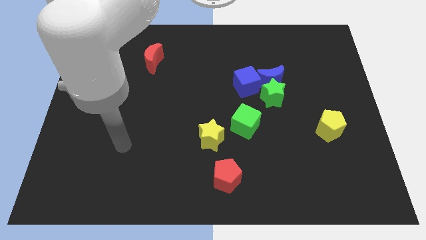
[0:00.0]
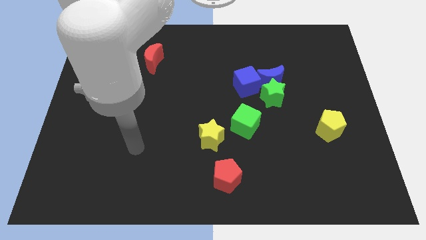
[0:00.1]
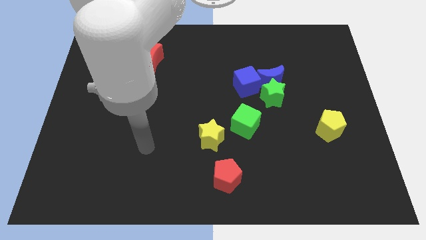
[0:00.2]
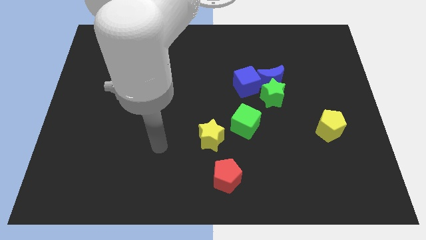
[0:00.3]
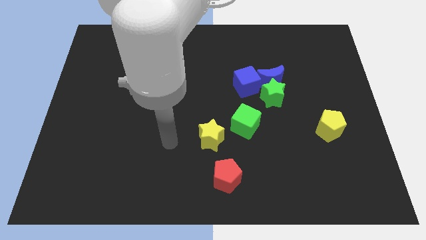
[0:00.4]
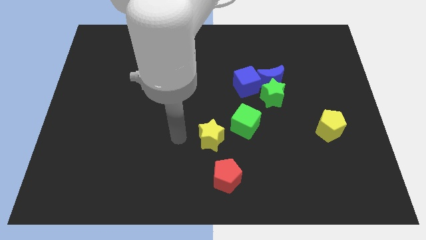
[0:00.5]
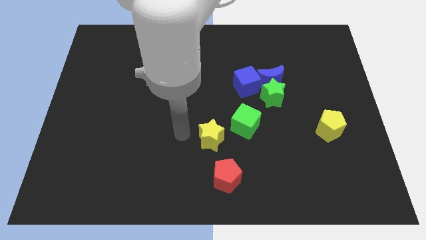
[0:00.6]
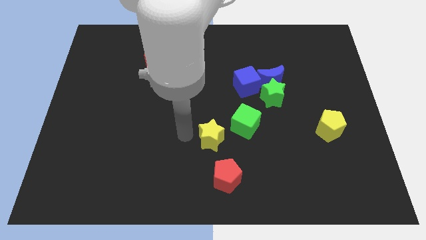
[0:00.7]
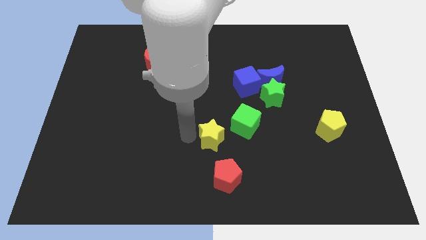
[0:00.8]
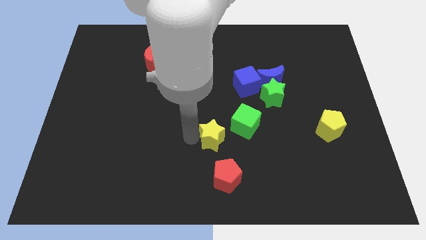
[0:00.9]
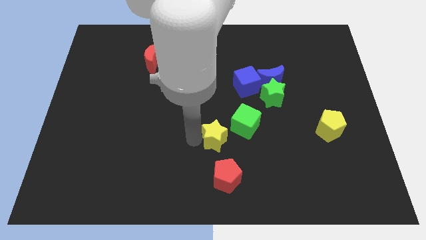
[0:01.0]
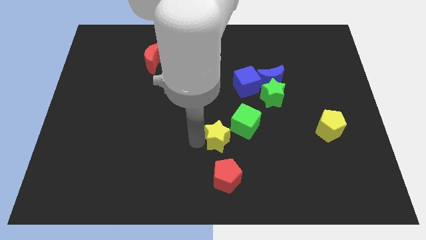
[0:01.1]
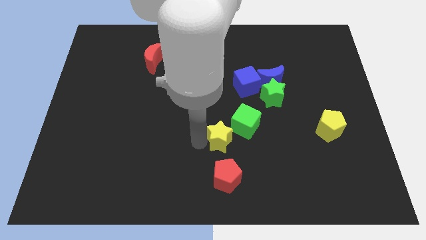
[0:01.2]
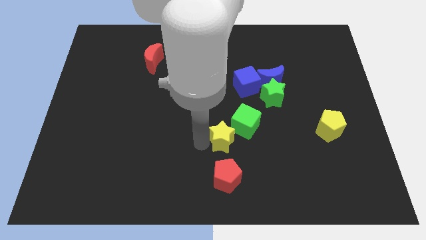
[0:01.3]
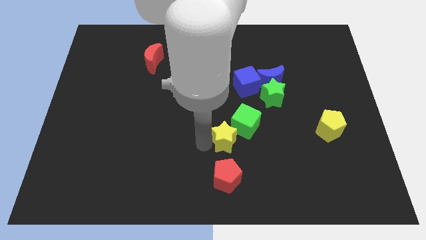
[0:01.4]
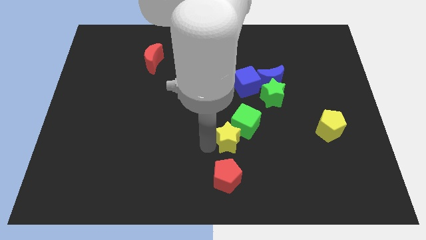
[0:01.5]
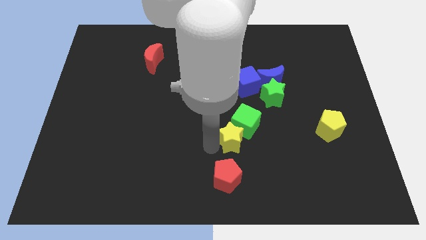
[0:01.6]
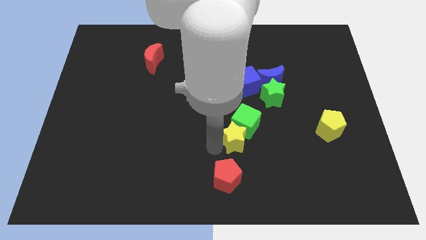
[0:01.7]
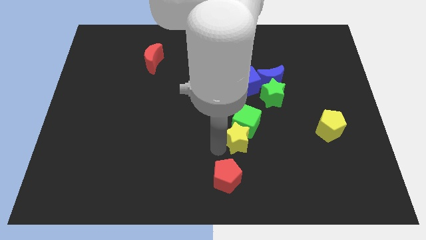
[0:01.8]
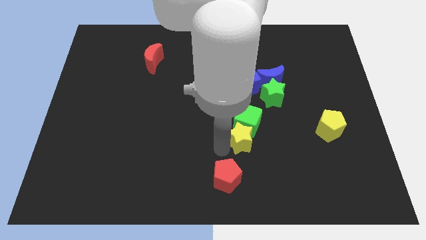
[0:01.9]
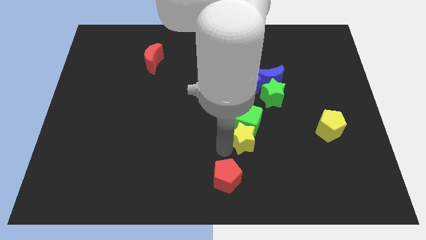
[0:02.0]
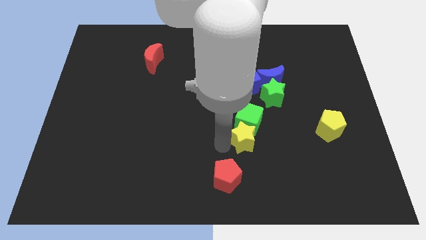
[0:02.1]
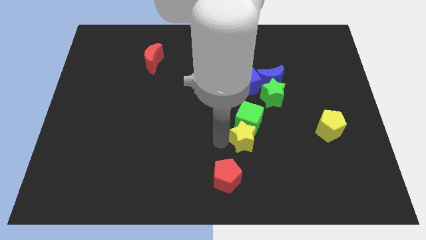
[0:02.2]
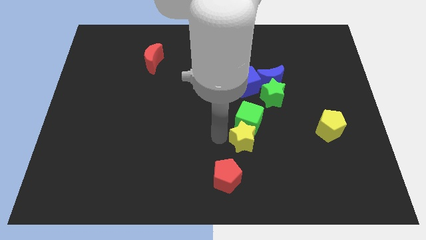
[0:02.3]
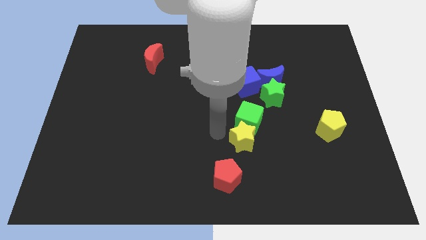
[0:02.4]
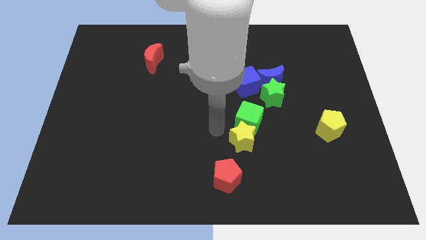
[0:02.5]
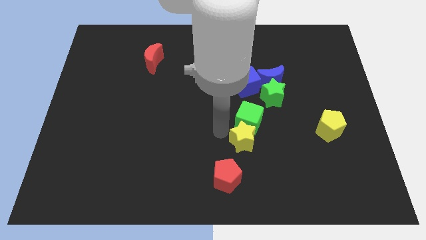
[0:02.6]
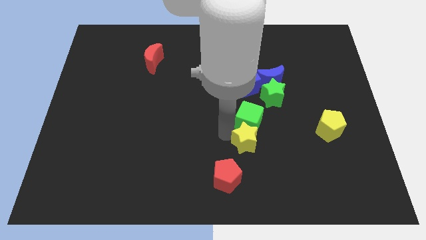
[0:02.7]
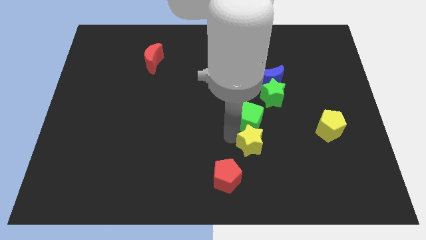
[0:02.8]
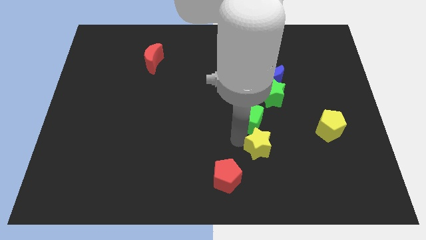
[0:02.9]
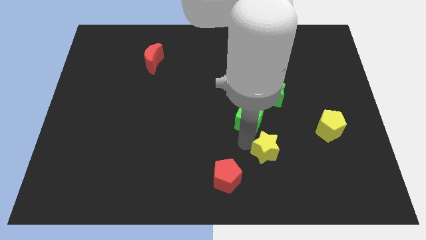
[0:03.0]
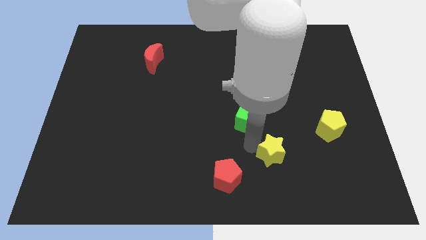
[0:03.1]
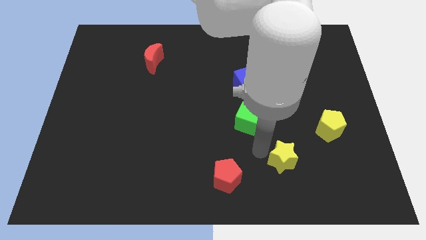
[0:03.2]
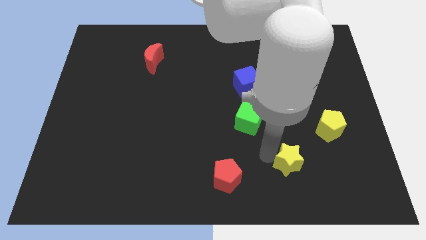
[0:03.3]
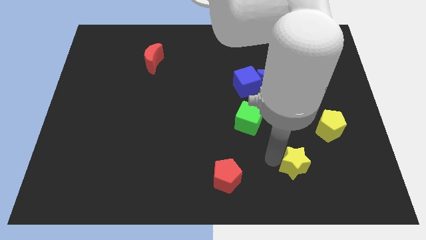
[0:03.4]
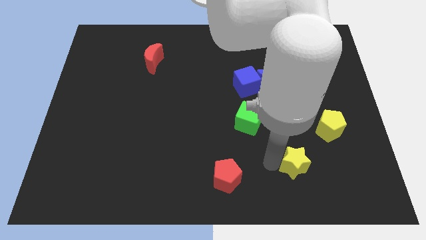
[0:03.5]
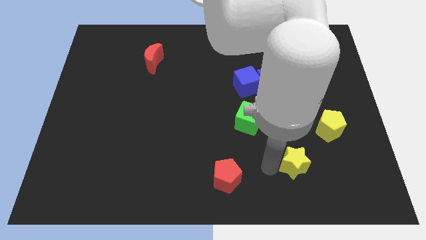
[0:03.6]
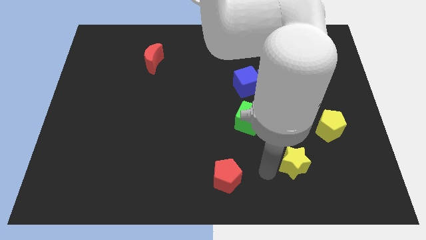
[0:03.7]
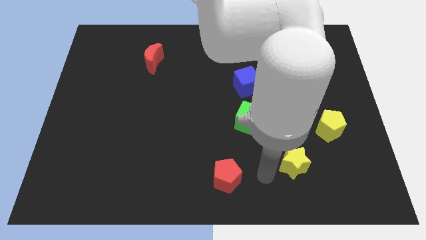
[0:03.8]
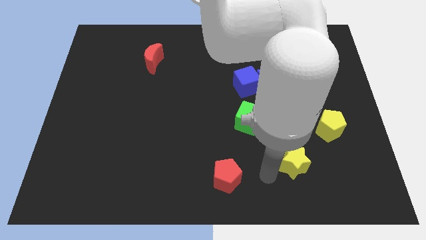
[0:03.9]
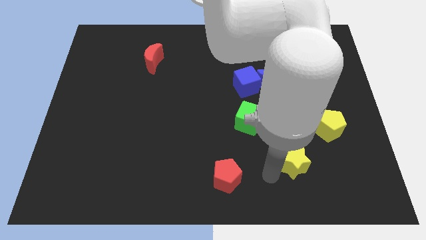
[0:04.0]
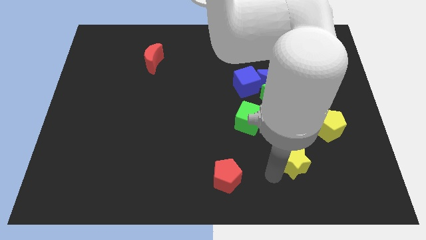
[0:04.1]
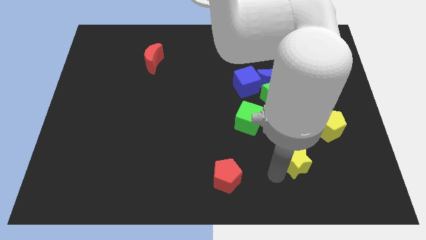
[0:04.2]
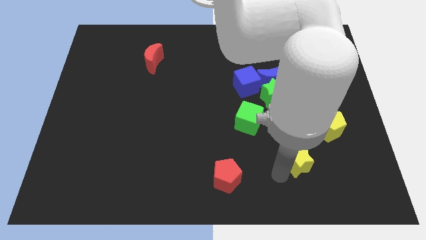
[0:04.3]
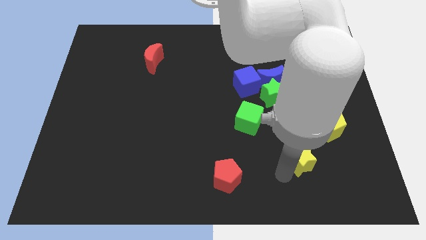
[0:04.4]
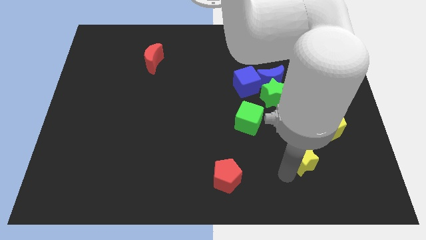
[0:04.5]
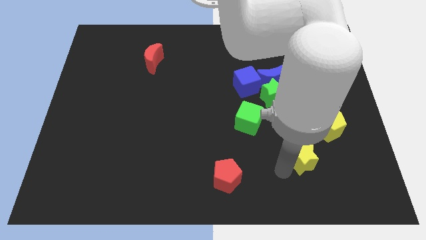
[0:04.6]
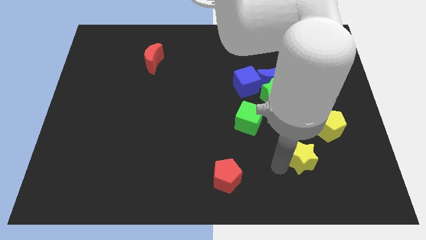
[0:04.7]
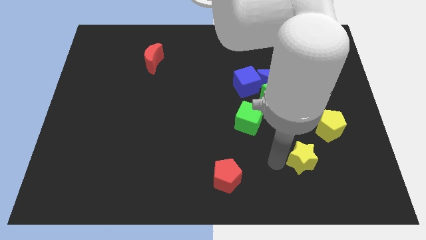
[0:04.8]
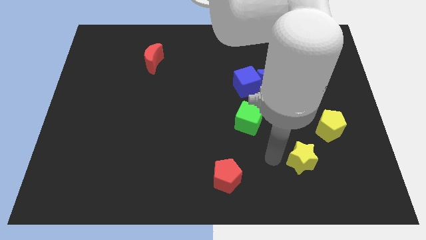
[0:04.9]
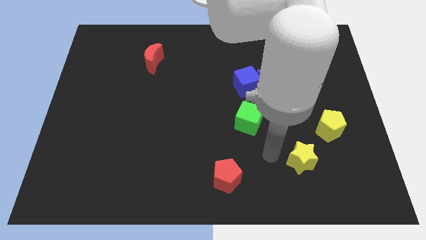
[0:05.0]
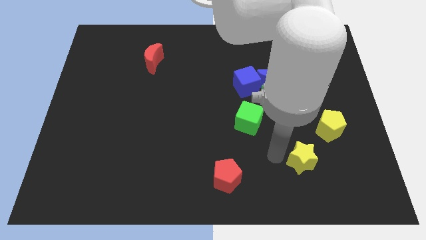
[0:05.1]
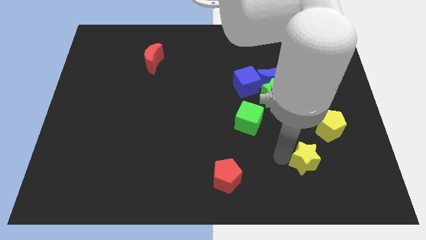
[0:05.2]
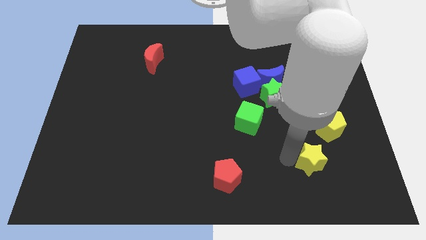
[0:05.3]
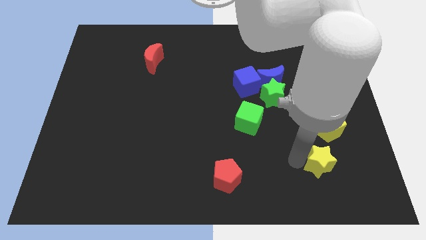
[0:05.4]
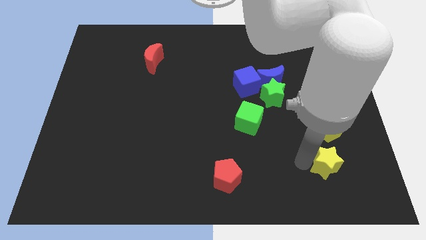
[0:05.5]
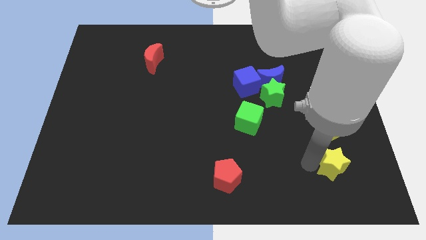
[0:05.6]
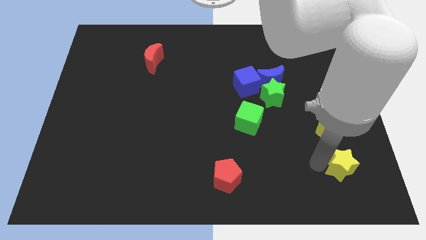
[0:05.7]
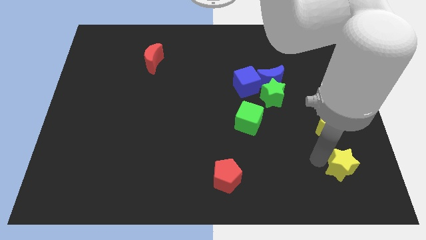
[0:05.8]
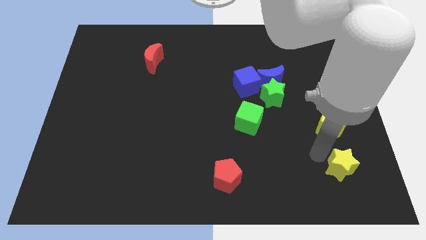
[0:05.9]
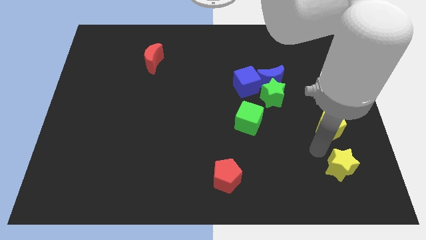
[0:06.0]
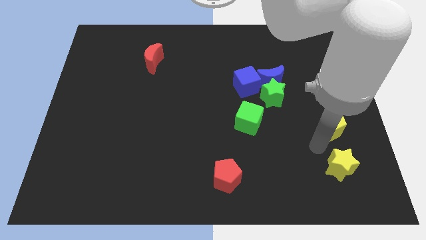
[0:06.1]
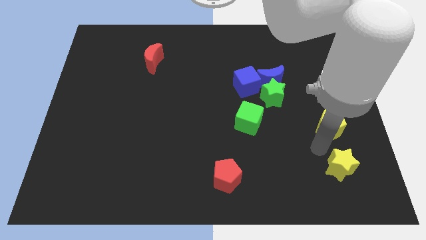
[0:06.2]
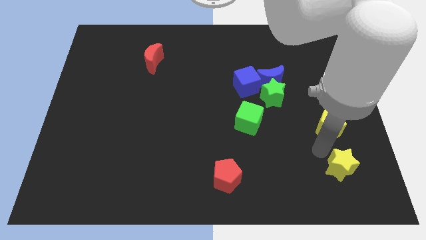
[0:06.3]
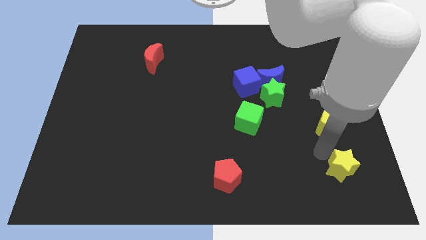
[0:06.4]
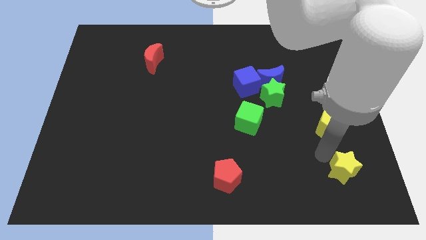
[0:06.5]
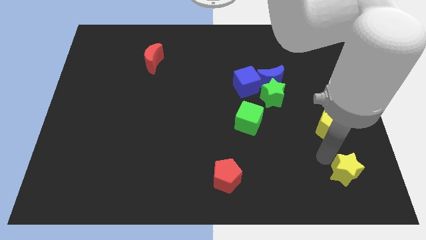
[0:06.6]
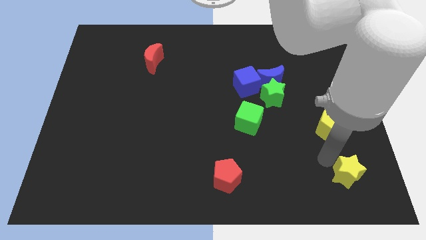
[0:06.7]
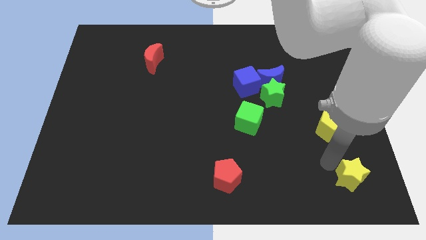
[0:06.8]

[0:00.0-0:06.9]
push the yellow star to the bottom right corner
